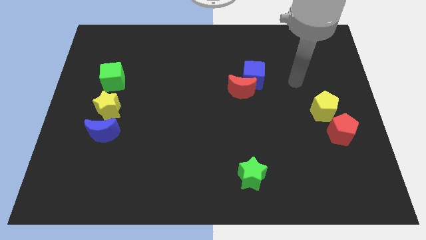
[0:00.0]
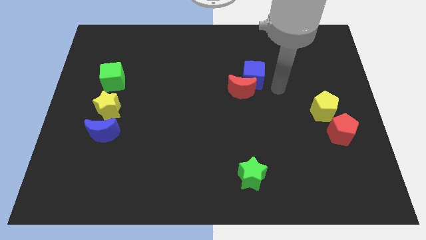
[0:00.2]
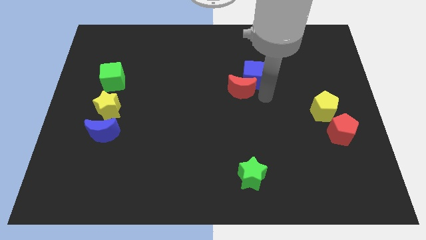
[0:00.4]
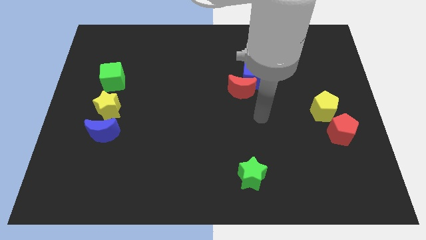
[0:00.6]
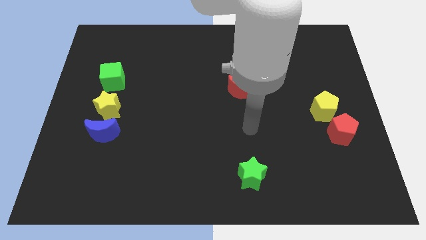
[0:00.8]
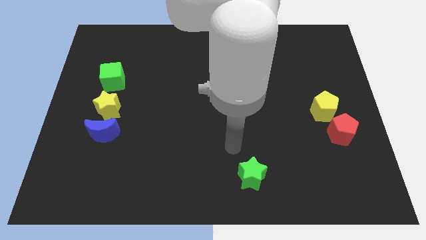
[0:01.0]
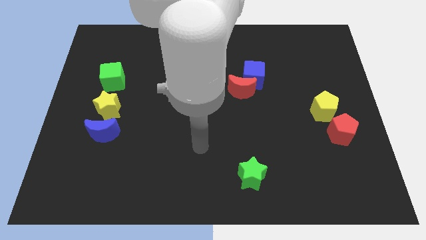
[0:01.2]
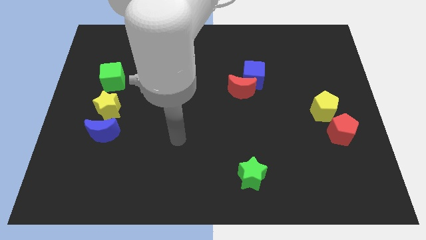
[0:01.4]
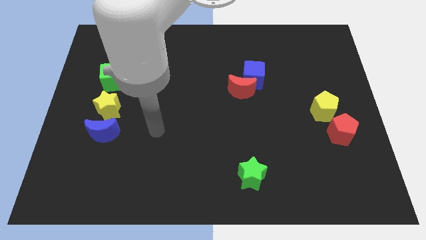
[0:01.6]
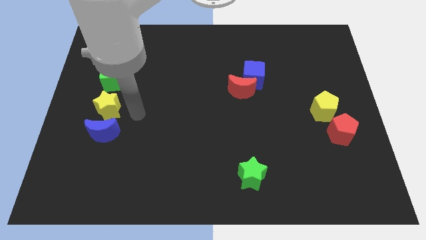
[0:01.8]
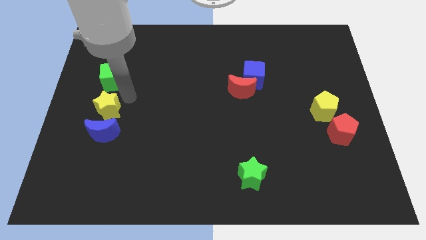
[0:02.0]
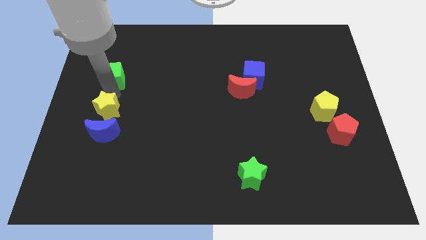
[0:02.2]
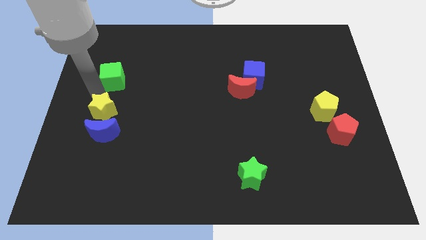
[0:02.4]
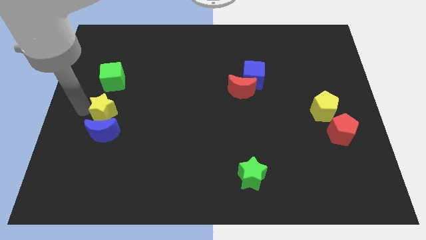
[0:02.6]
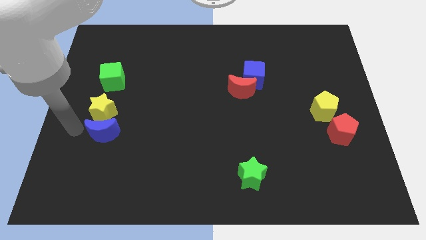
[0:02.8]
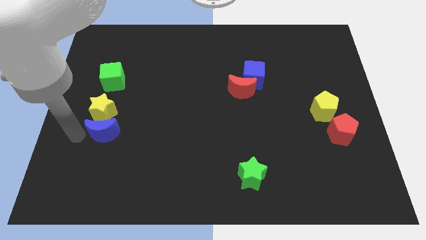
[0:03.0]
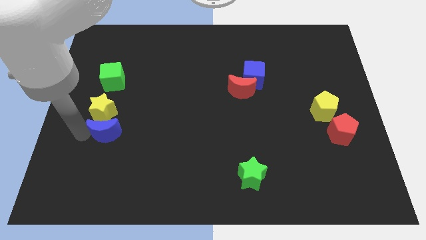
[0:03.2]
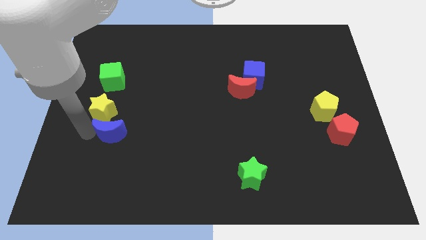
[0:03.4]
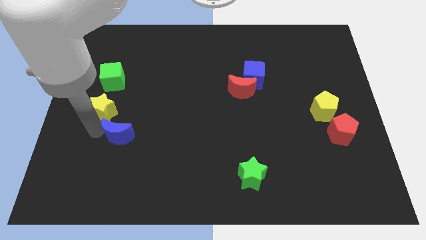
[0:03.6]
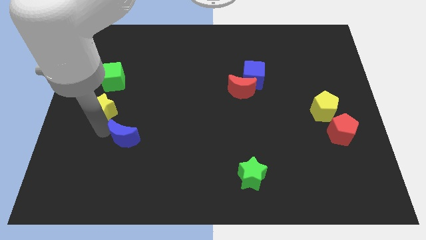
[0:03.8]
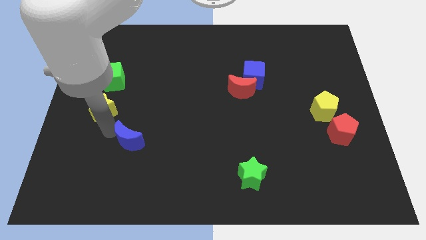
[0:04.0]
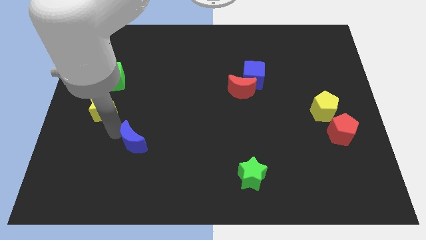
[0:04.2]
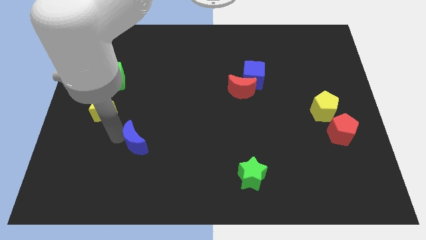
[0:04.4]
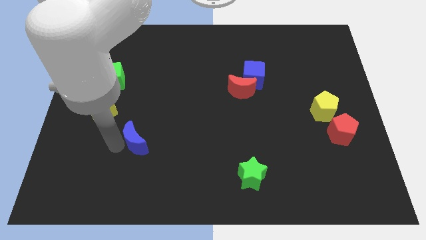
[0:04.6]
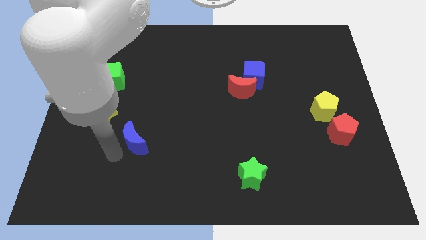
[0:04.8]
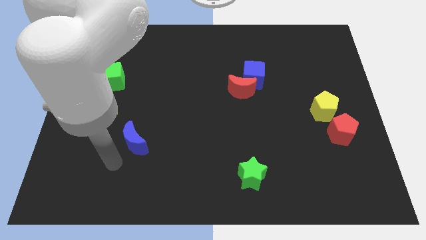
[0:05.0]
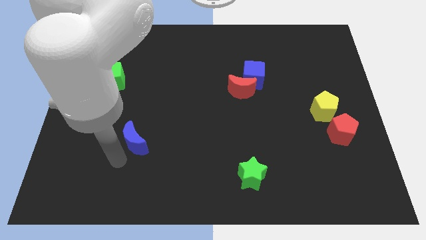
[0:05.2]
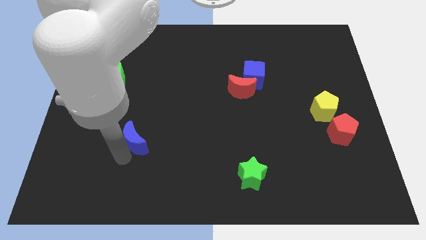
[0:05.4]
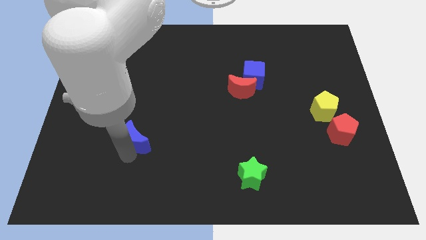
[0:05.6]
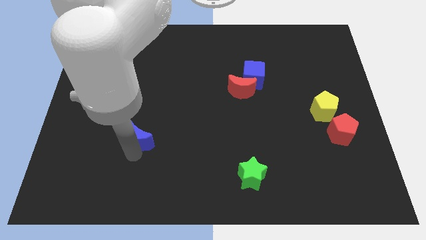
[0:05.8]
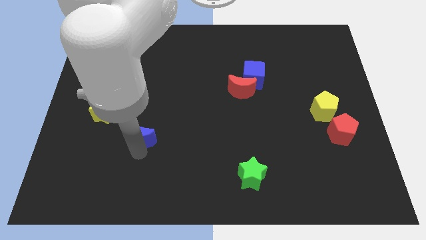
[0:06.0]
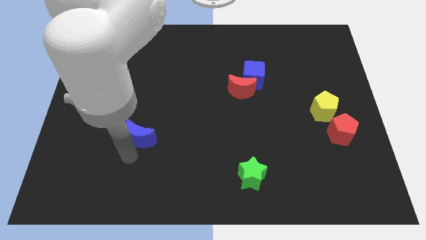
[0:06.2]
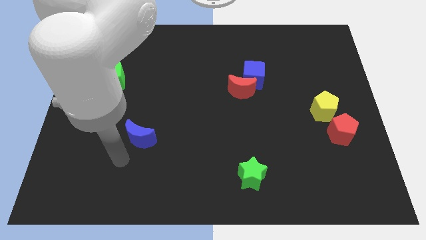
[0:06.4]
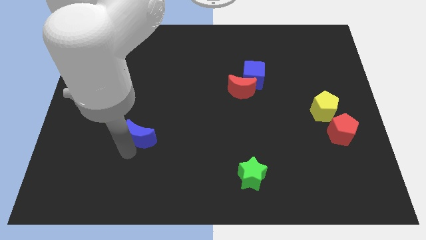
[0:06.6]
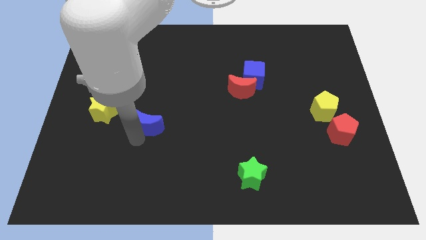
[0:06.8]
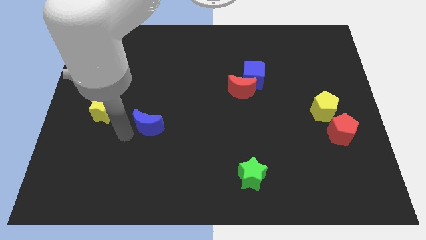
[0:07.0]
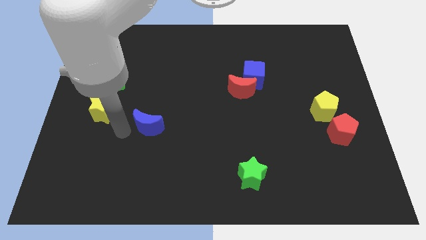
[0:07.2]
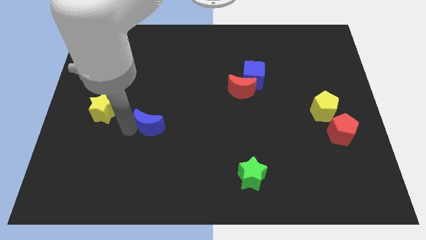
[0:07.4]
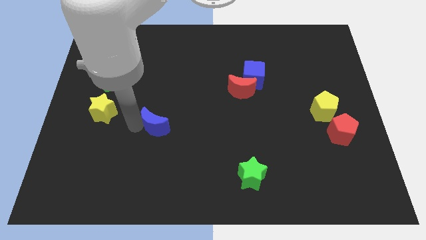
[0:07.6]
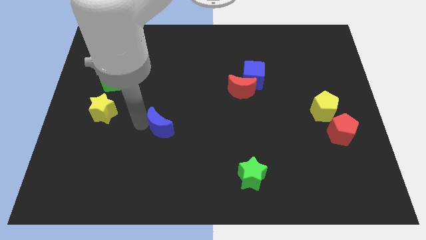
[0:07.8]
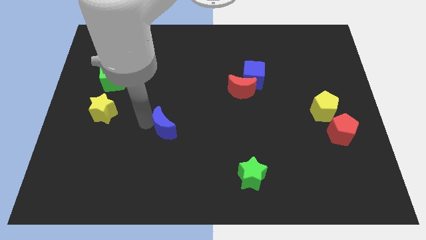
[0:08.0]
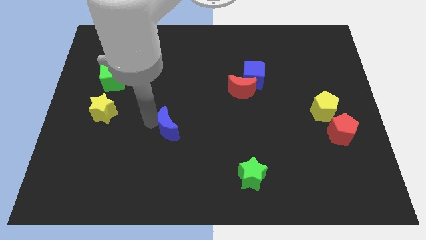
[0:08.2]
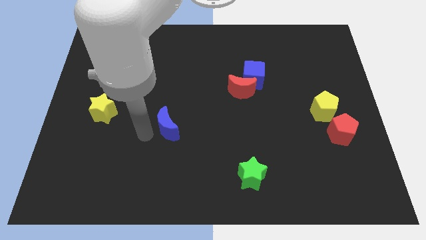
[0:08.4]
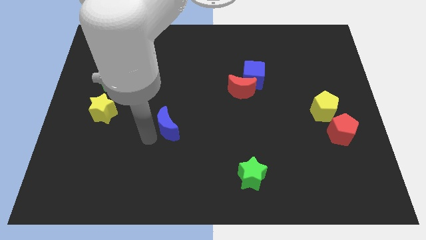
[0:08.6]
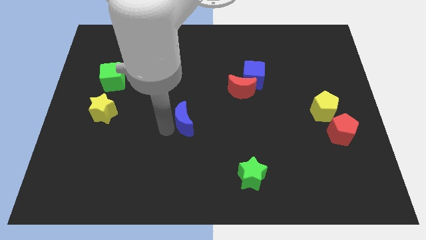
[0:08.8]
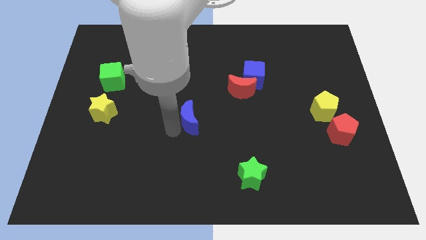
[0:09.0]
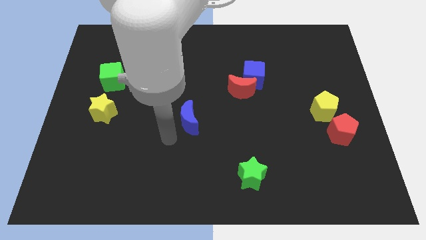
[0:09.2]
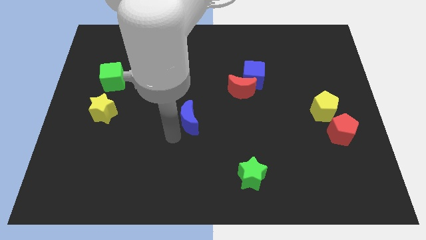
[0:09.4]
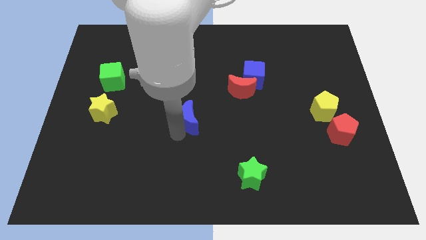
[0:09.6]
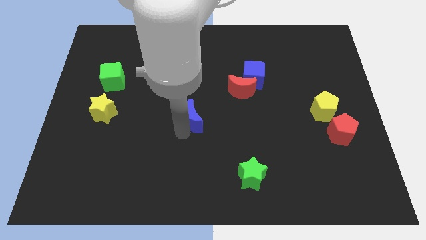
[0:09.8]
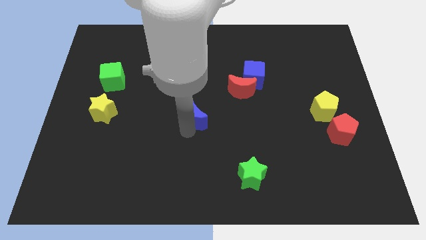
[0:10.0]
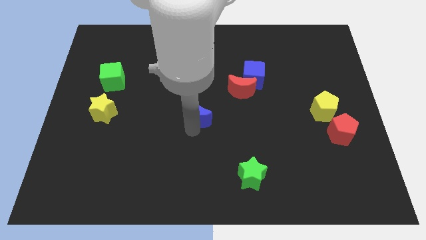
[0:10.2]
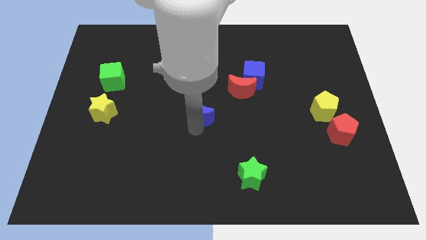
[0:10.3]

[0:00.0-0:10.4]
put the blue moon to the bottom left of the red moon

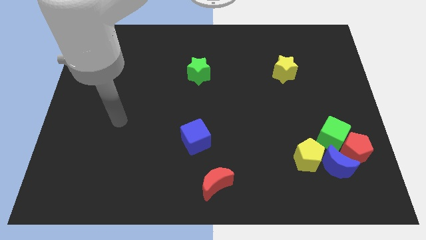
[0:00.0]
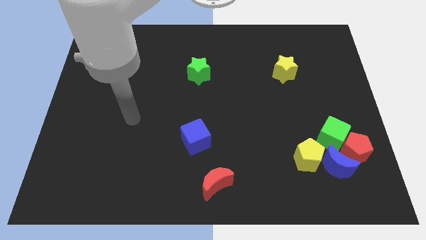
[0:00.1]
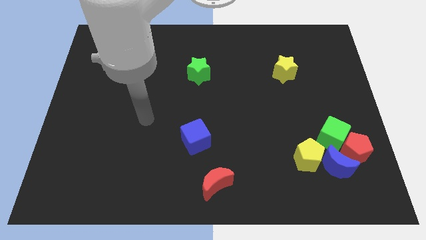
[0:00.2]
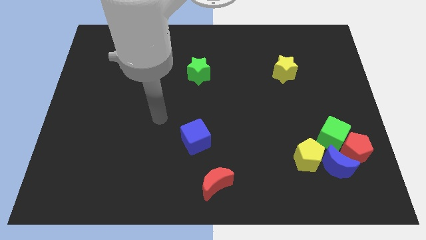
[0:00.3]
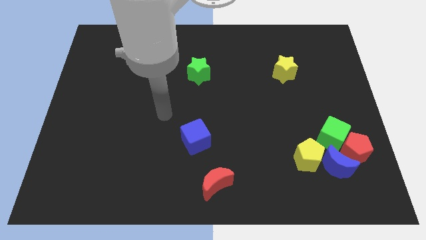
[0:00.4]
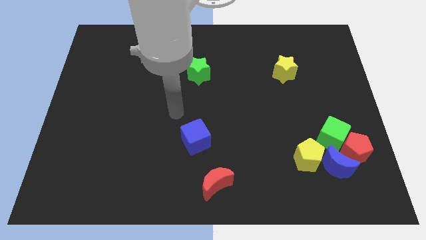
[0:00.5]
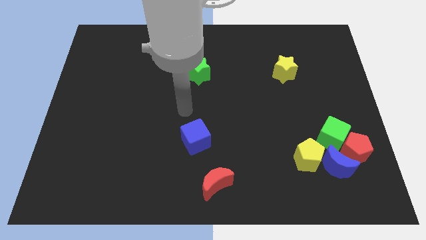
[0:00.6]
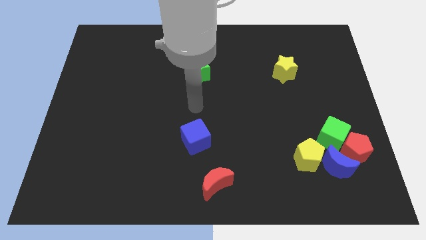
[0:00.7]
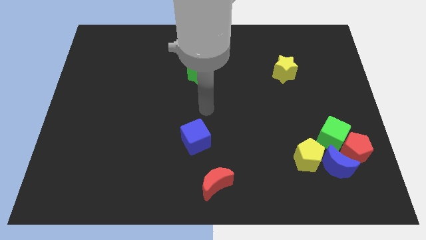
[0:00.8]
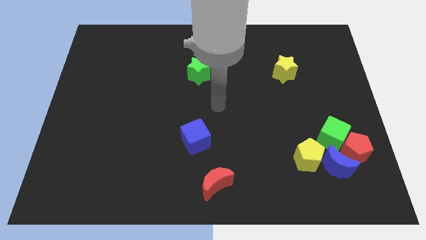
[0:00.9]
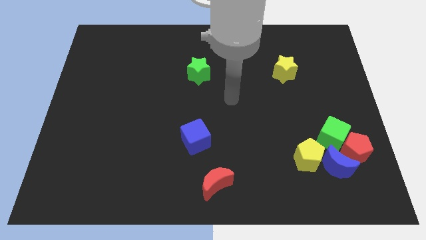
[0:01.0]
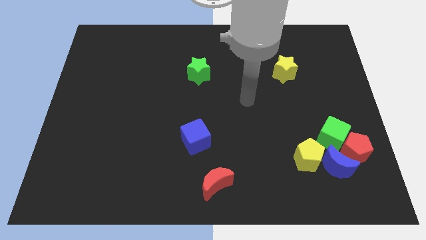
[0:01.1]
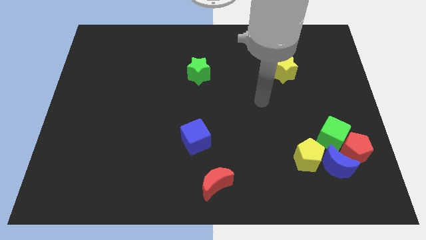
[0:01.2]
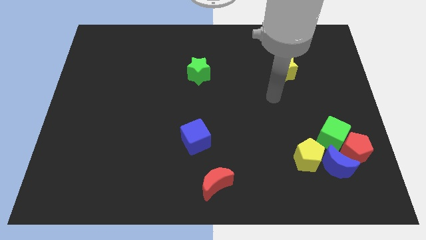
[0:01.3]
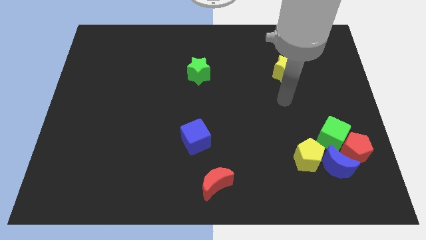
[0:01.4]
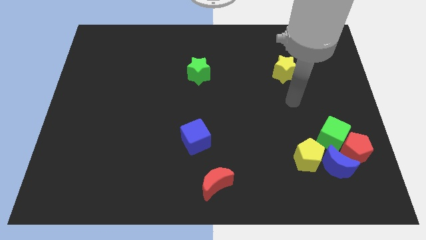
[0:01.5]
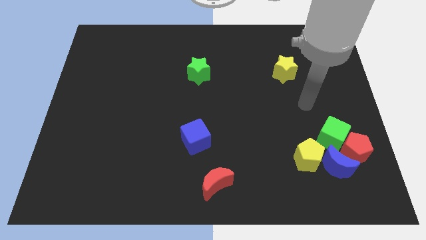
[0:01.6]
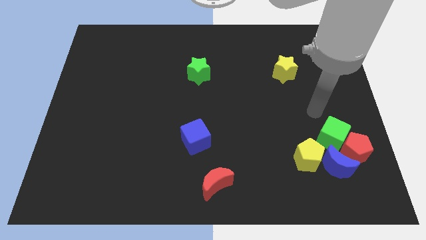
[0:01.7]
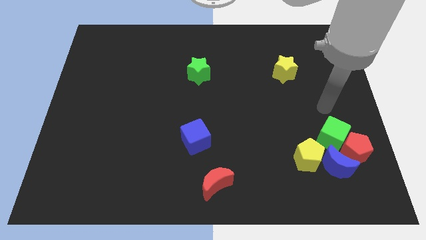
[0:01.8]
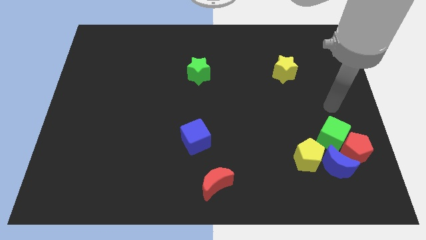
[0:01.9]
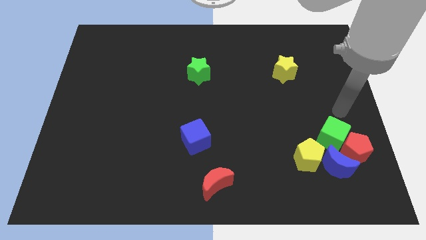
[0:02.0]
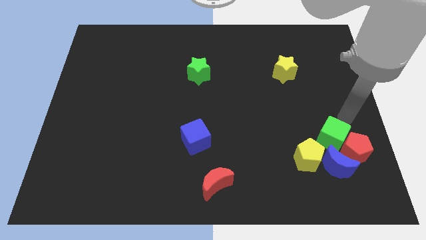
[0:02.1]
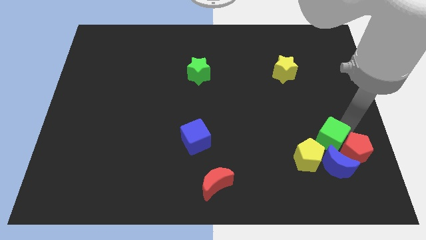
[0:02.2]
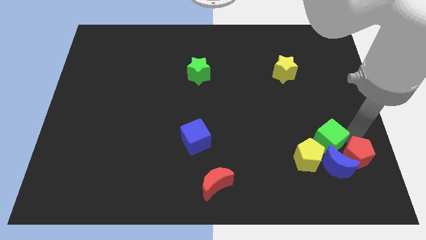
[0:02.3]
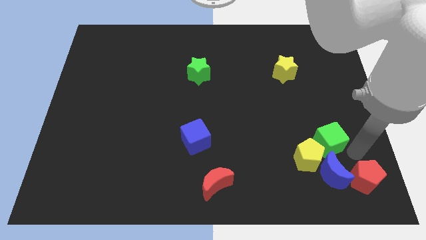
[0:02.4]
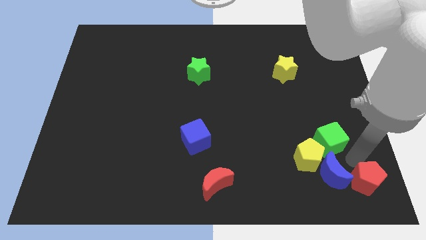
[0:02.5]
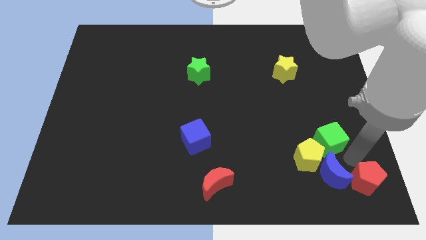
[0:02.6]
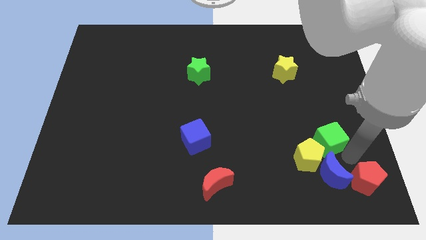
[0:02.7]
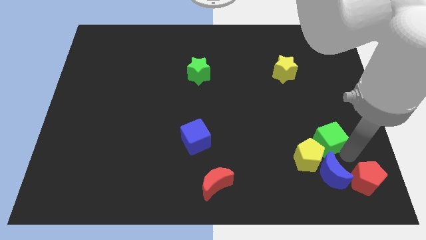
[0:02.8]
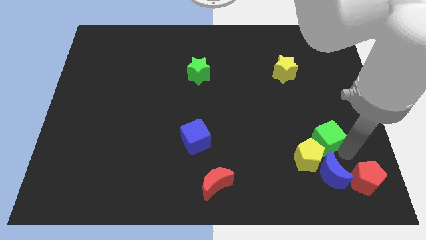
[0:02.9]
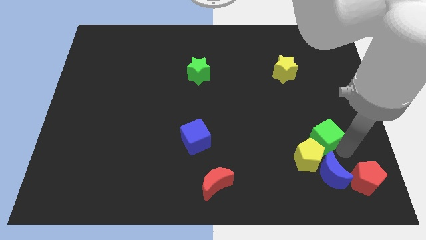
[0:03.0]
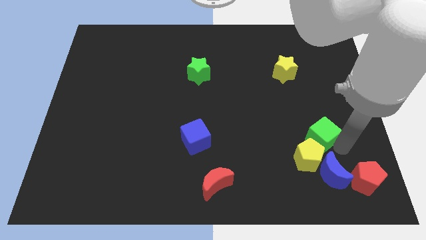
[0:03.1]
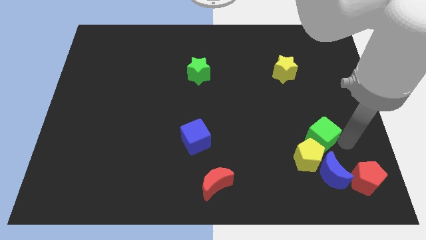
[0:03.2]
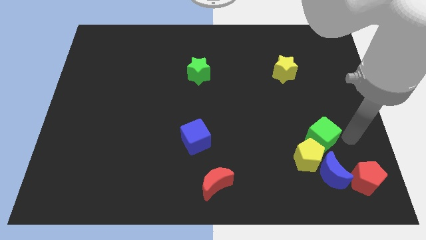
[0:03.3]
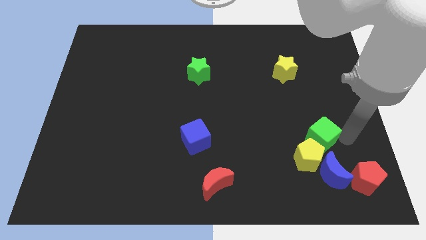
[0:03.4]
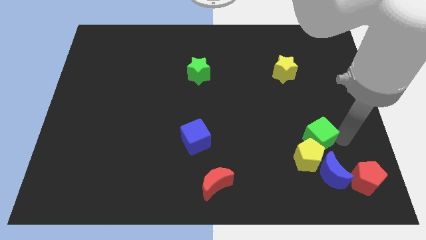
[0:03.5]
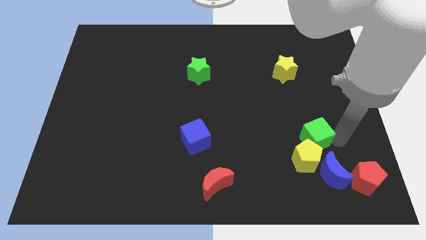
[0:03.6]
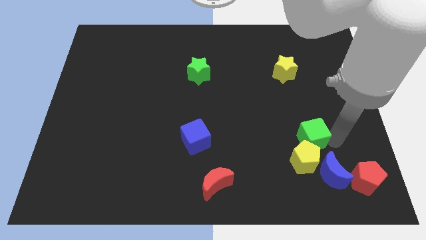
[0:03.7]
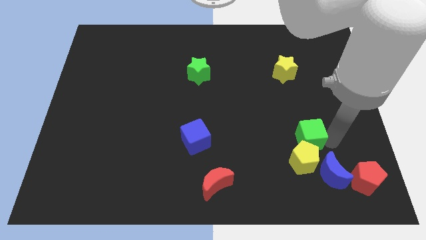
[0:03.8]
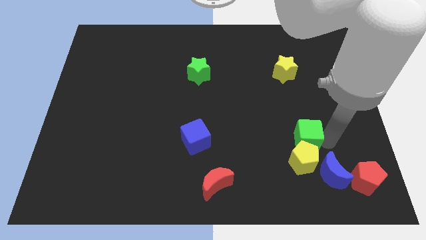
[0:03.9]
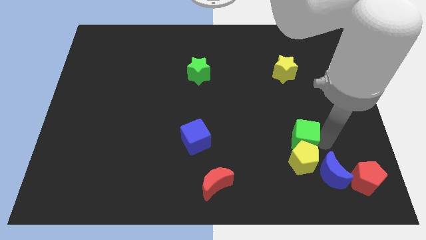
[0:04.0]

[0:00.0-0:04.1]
slide the green cube to the top left side of the yellow pentagon
